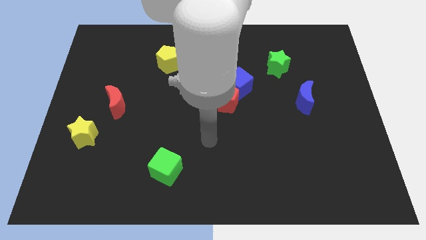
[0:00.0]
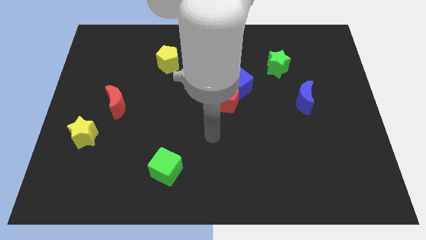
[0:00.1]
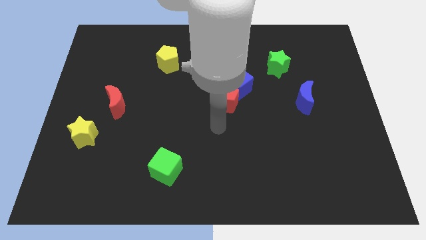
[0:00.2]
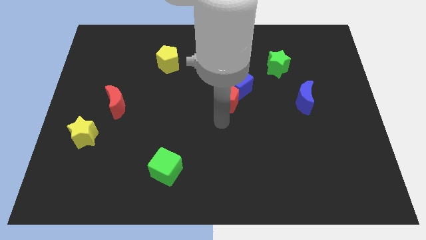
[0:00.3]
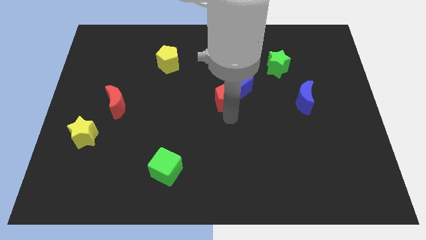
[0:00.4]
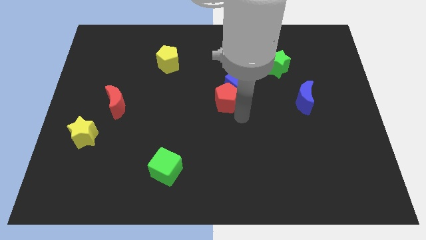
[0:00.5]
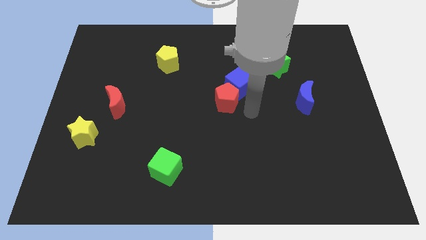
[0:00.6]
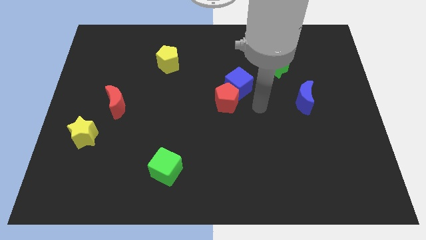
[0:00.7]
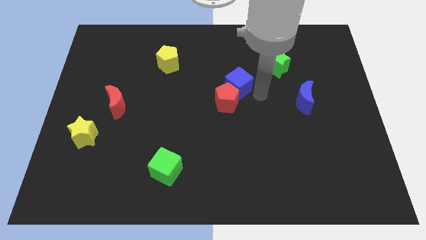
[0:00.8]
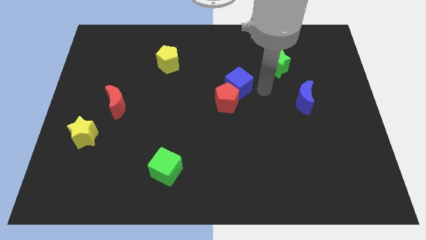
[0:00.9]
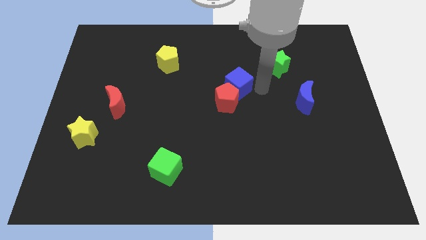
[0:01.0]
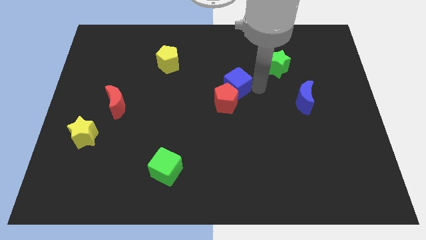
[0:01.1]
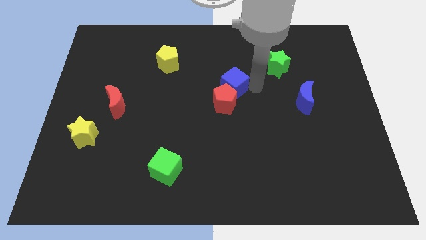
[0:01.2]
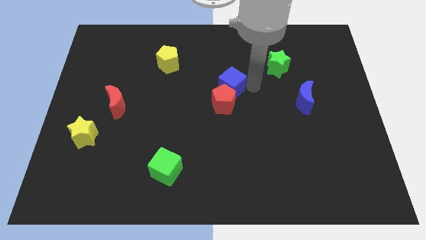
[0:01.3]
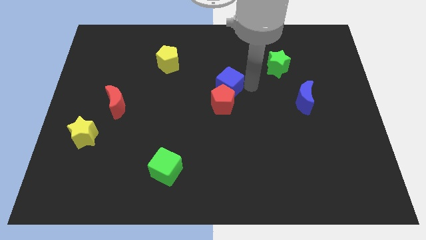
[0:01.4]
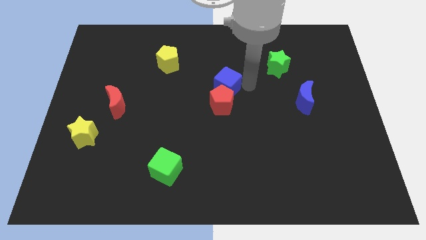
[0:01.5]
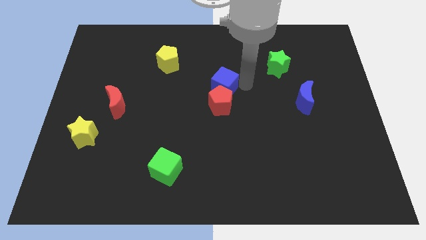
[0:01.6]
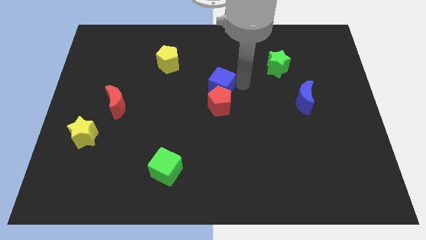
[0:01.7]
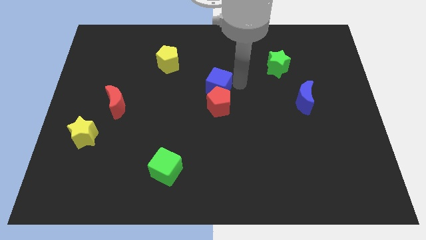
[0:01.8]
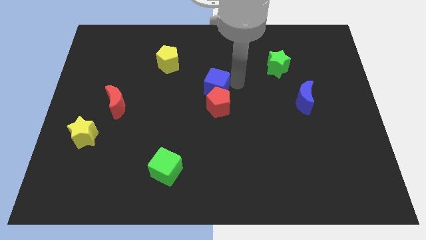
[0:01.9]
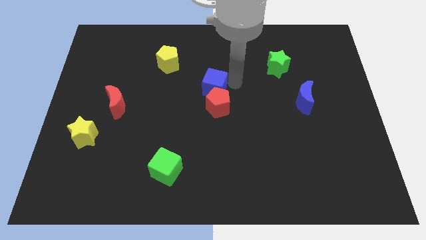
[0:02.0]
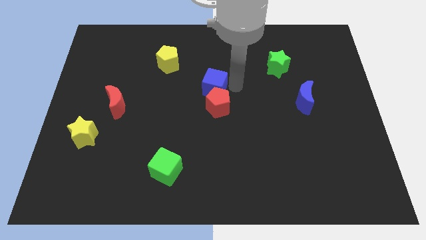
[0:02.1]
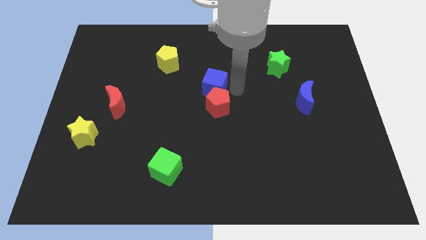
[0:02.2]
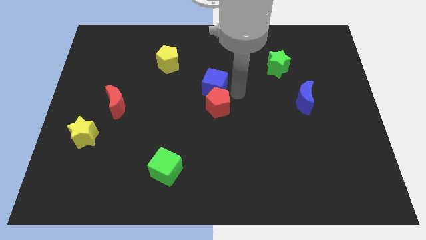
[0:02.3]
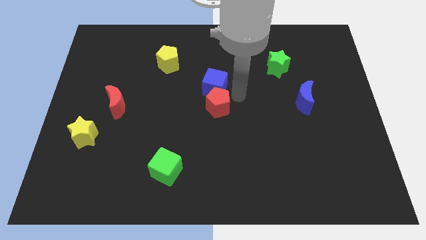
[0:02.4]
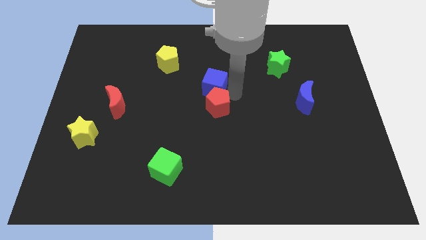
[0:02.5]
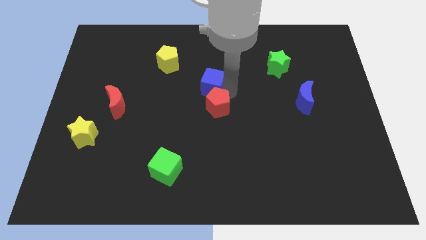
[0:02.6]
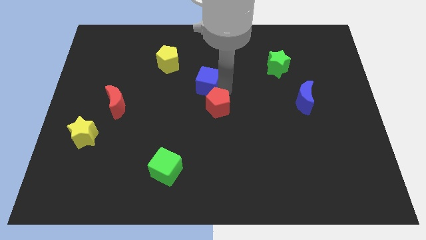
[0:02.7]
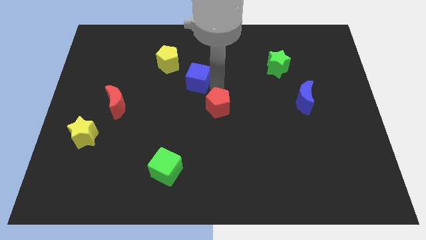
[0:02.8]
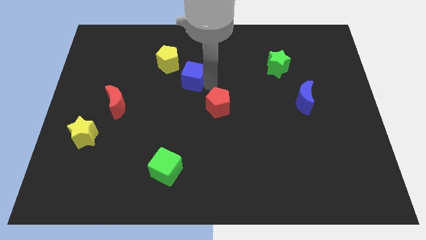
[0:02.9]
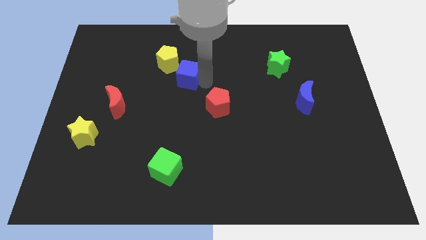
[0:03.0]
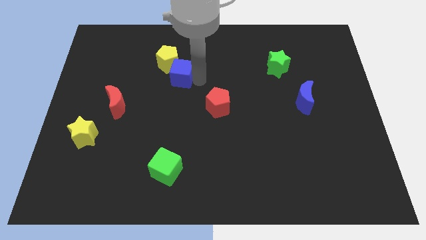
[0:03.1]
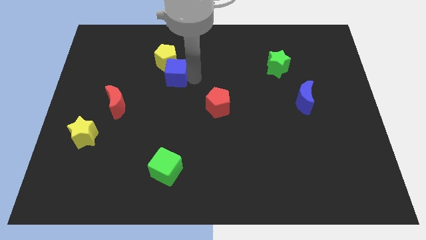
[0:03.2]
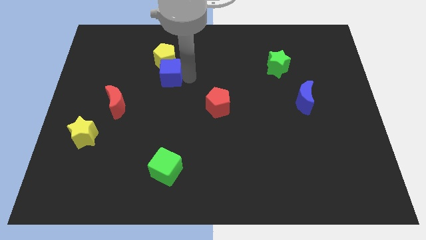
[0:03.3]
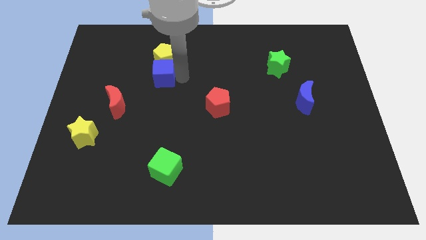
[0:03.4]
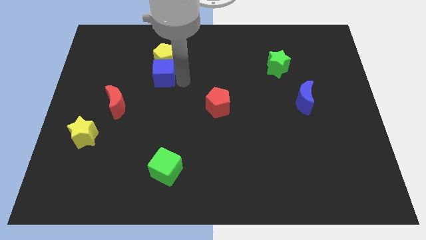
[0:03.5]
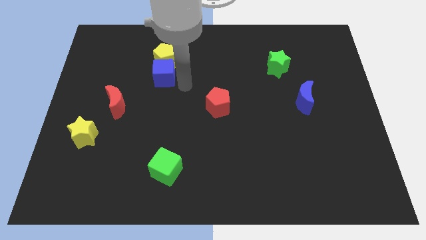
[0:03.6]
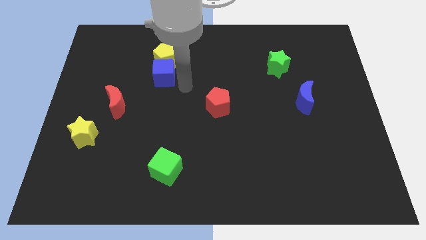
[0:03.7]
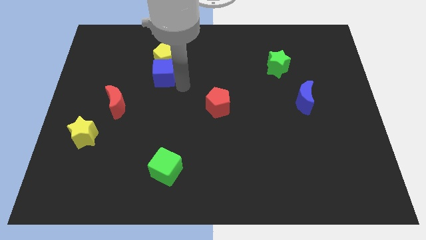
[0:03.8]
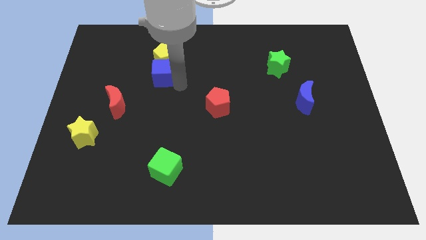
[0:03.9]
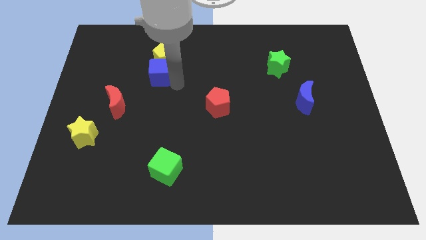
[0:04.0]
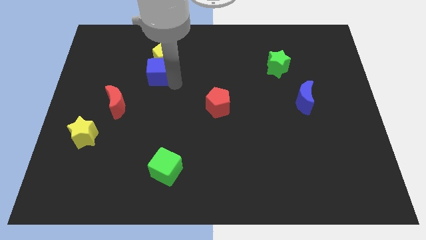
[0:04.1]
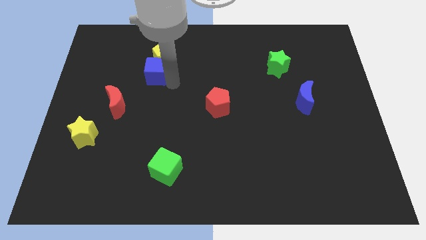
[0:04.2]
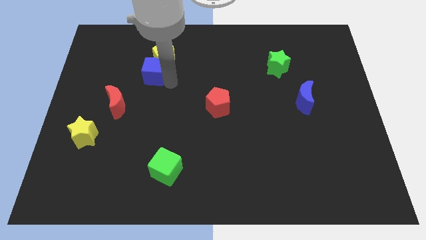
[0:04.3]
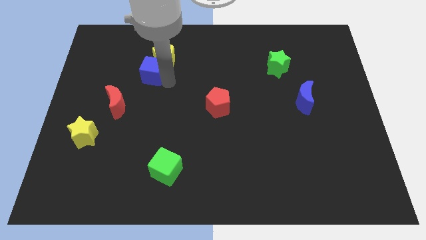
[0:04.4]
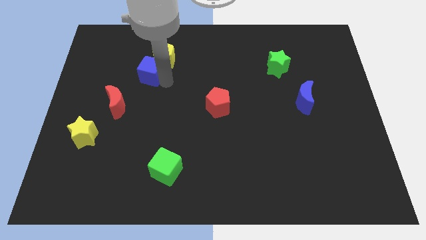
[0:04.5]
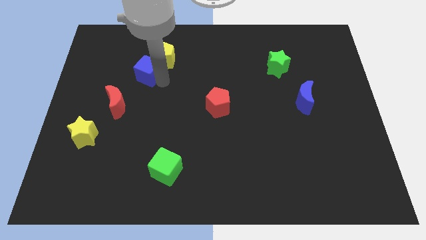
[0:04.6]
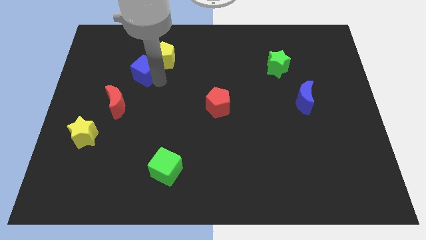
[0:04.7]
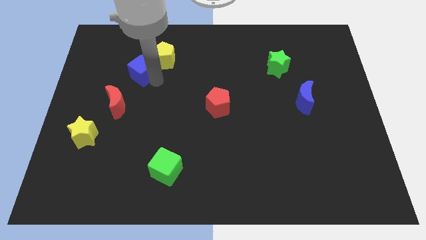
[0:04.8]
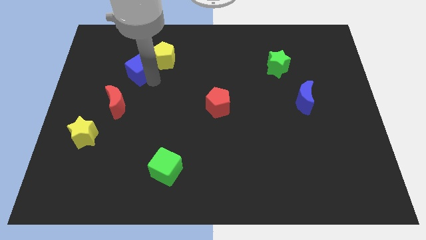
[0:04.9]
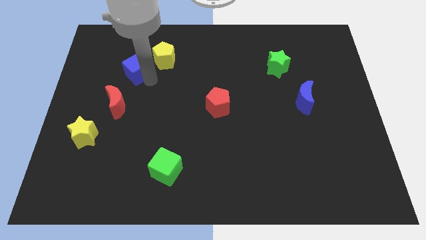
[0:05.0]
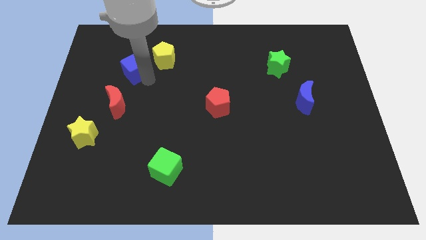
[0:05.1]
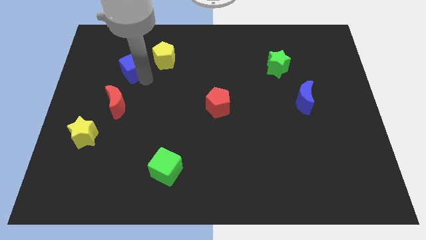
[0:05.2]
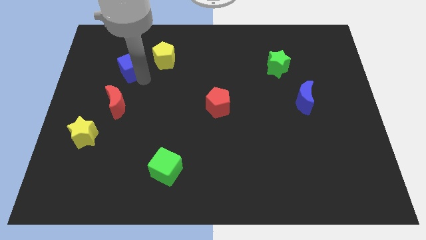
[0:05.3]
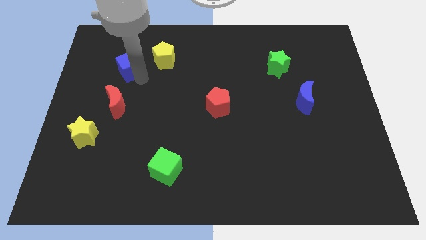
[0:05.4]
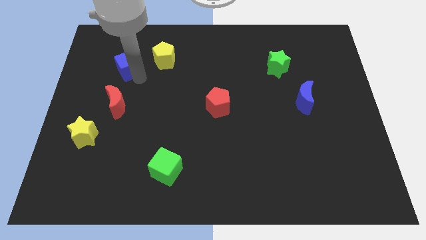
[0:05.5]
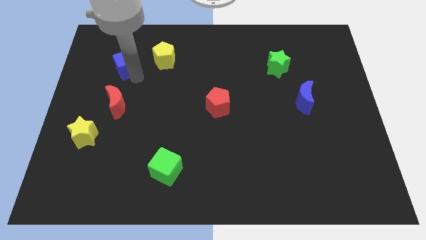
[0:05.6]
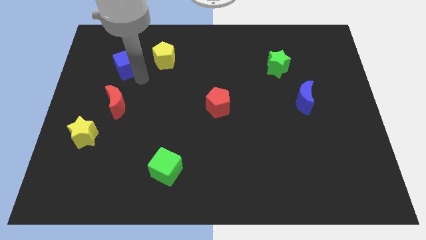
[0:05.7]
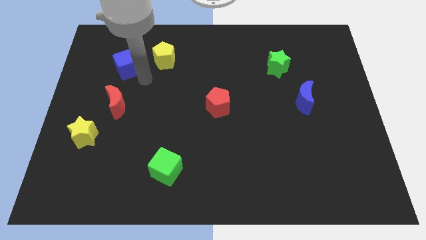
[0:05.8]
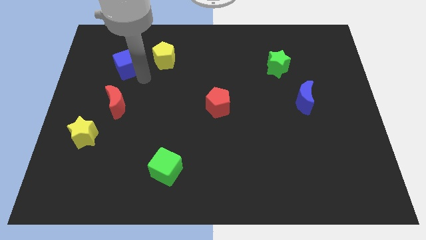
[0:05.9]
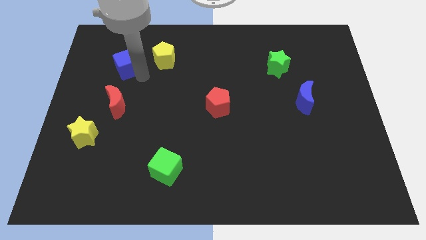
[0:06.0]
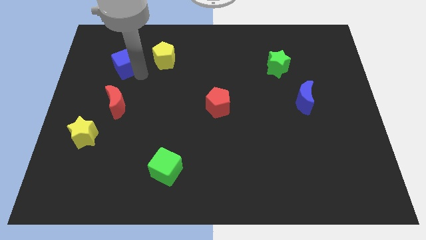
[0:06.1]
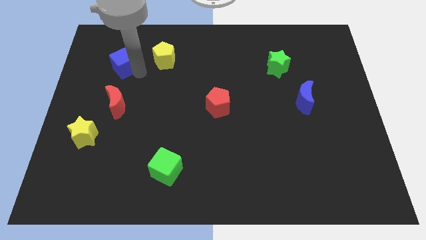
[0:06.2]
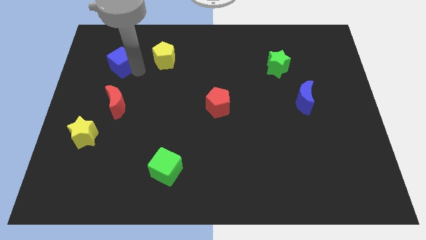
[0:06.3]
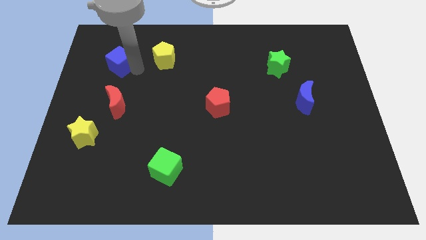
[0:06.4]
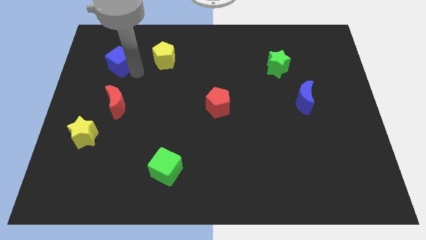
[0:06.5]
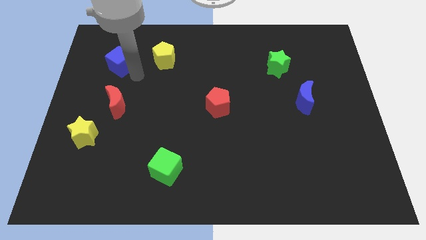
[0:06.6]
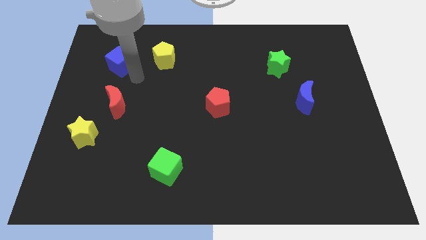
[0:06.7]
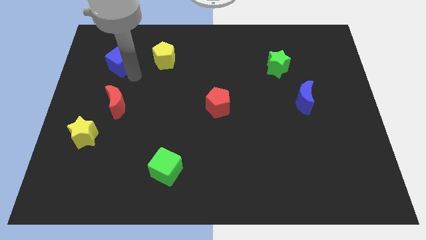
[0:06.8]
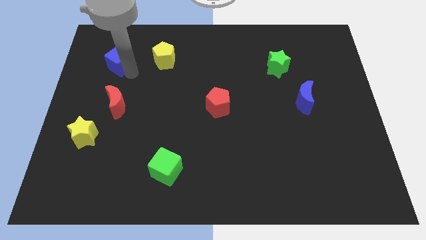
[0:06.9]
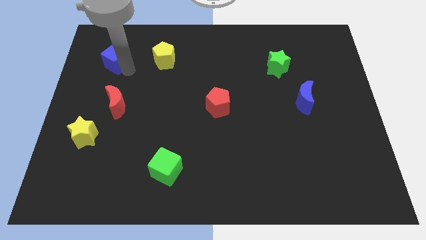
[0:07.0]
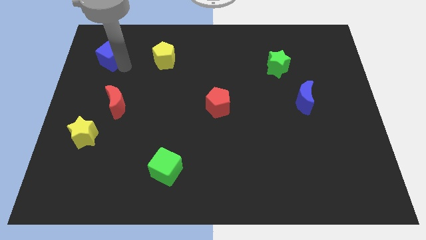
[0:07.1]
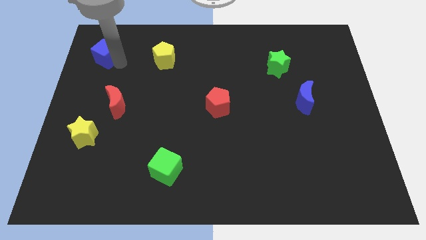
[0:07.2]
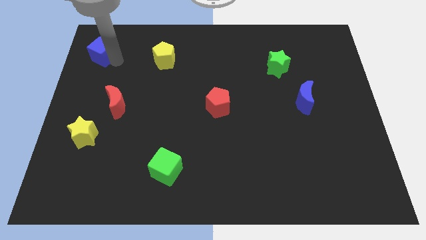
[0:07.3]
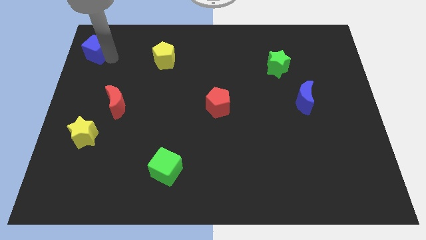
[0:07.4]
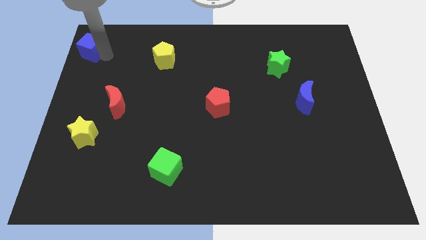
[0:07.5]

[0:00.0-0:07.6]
slide the blue cube to the upper left corner
